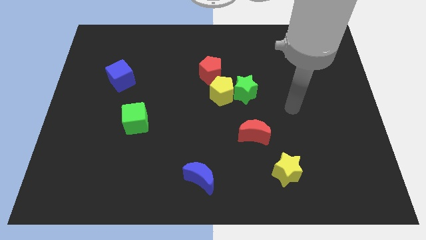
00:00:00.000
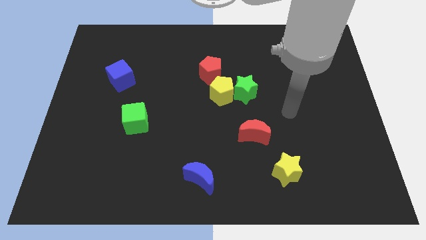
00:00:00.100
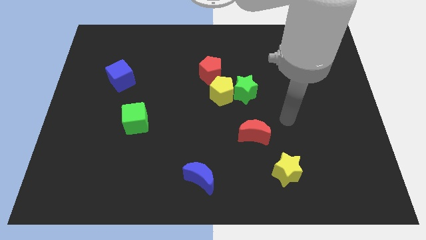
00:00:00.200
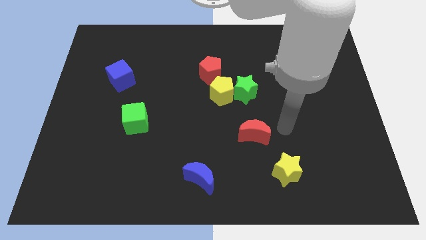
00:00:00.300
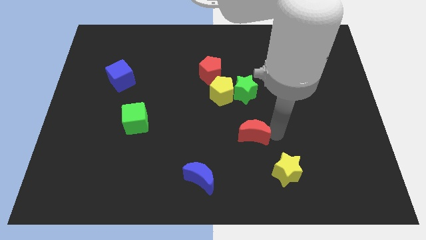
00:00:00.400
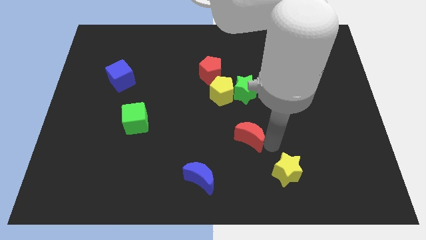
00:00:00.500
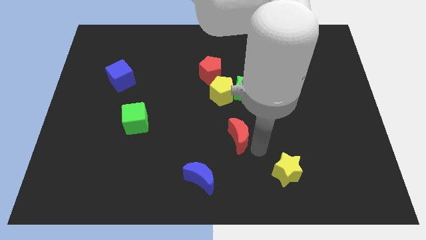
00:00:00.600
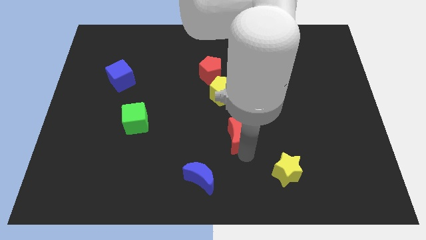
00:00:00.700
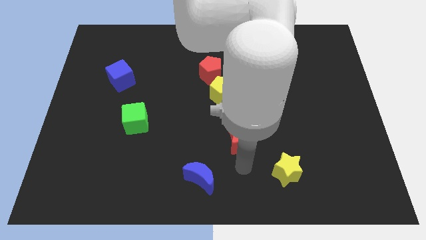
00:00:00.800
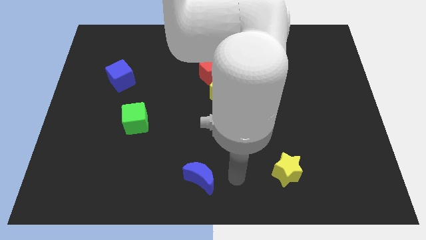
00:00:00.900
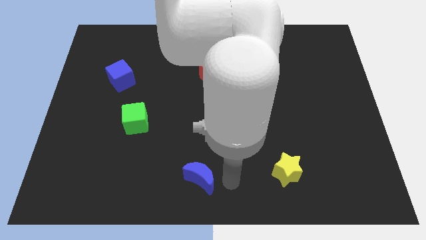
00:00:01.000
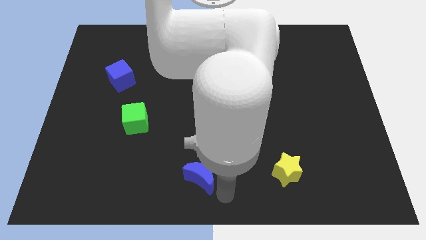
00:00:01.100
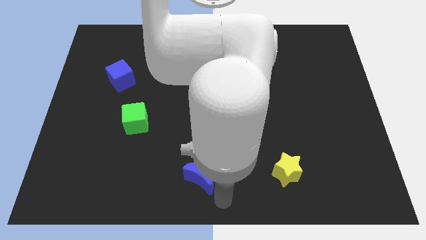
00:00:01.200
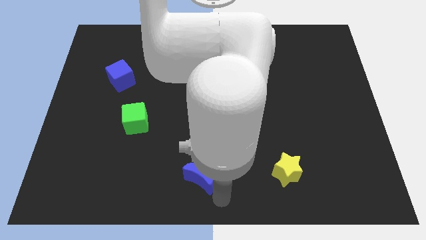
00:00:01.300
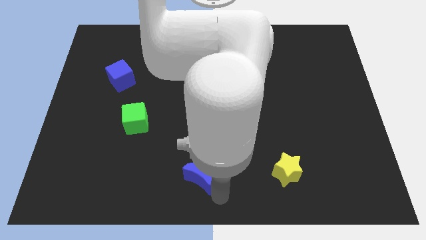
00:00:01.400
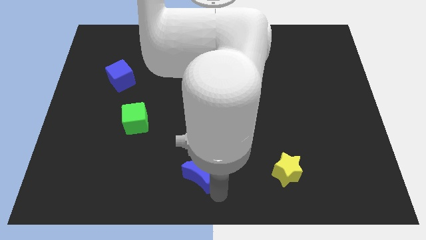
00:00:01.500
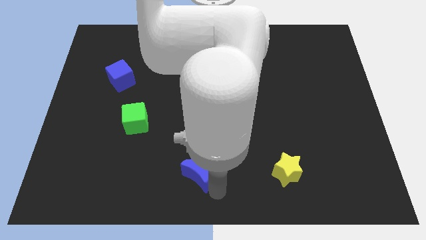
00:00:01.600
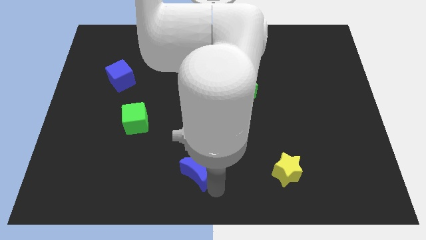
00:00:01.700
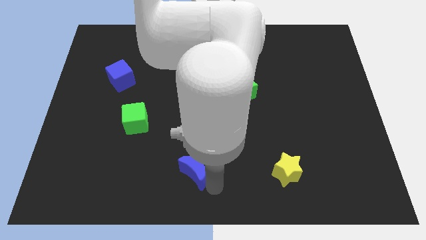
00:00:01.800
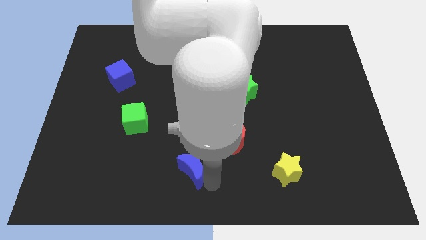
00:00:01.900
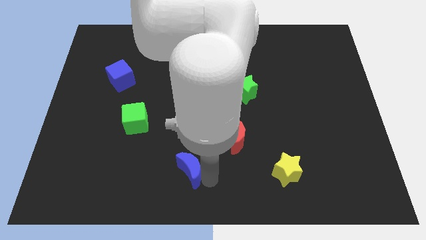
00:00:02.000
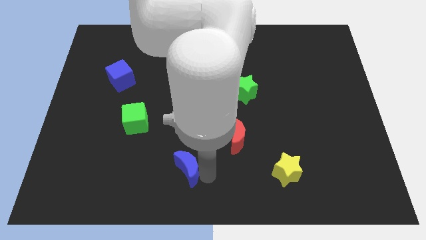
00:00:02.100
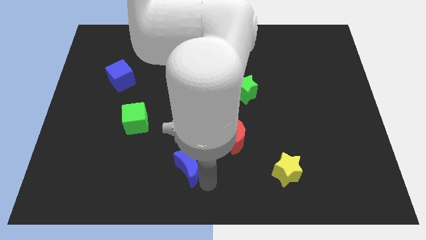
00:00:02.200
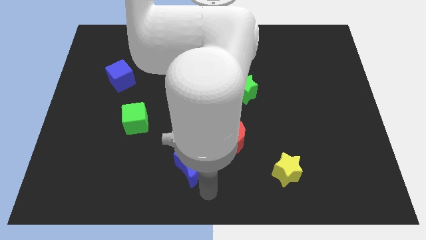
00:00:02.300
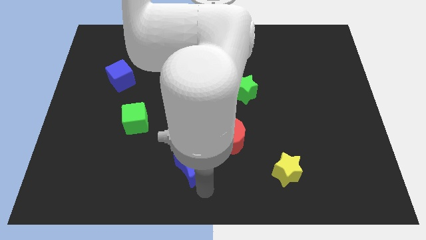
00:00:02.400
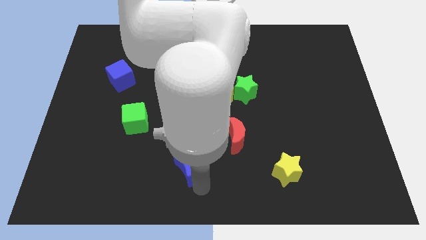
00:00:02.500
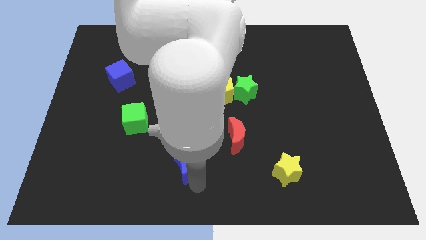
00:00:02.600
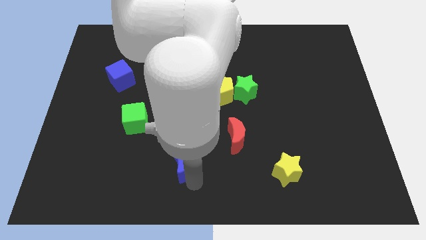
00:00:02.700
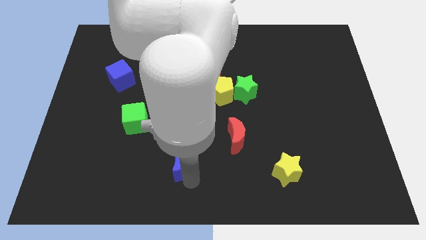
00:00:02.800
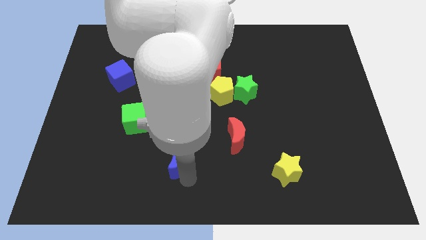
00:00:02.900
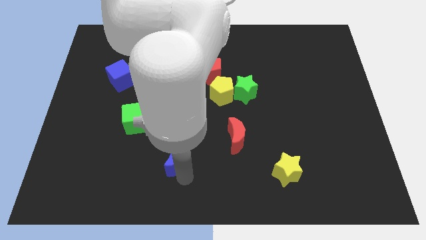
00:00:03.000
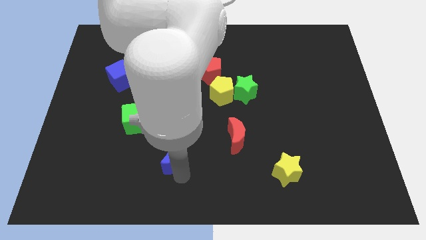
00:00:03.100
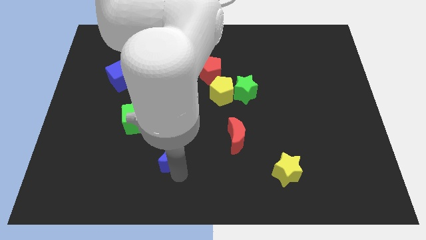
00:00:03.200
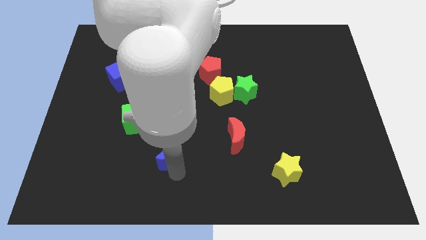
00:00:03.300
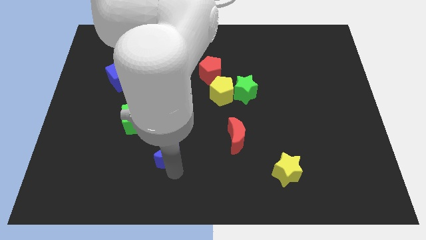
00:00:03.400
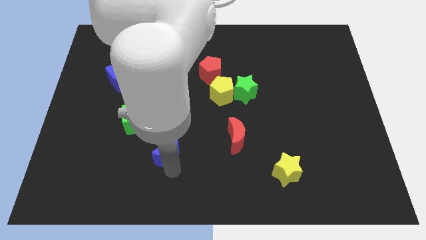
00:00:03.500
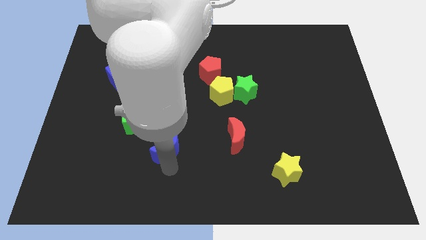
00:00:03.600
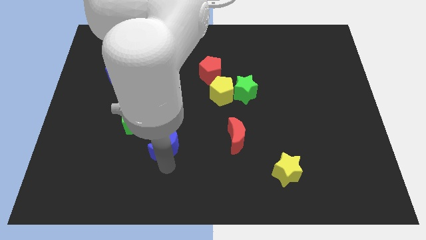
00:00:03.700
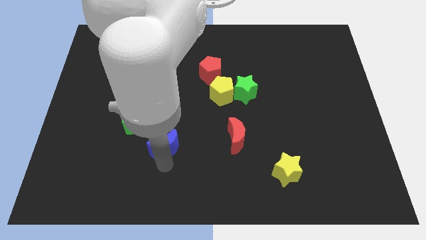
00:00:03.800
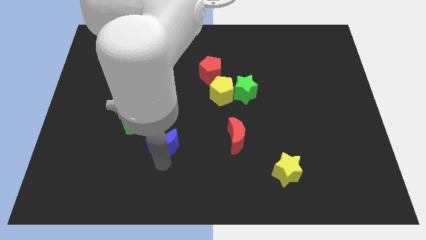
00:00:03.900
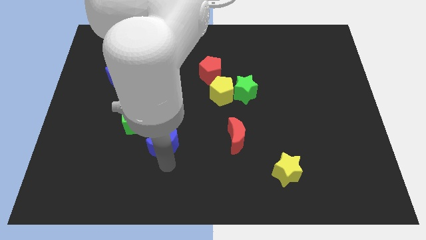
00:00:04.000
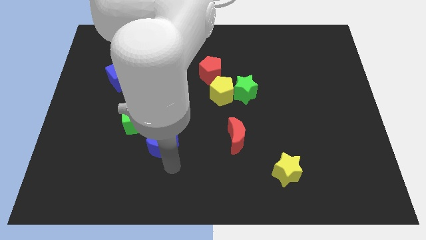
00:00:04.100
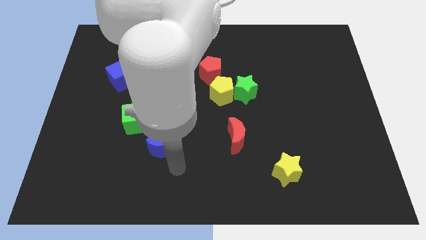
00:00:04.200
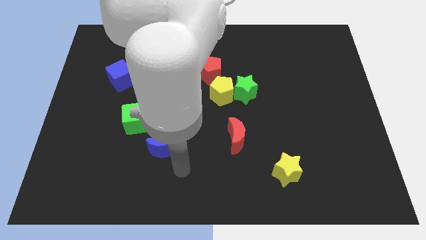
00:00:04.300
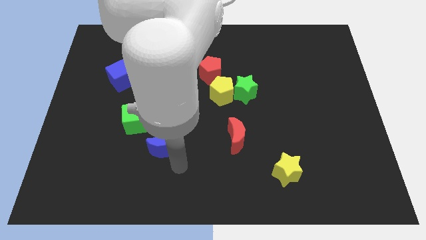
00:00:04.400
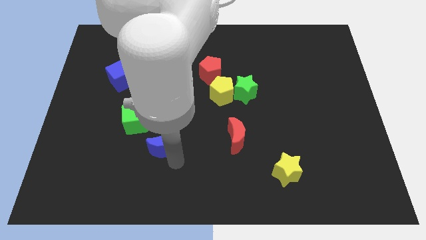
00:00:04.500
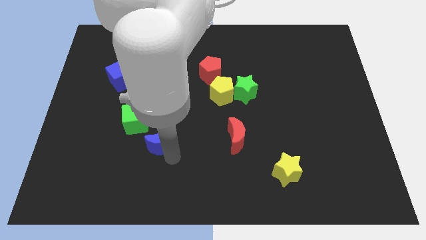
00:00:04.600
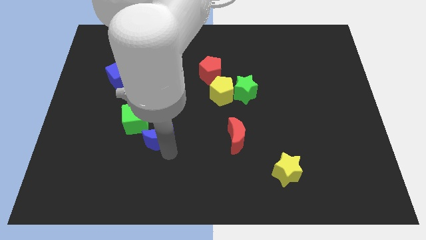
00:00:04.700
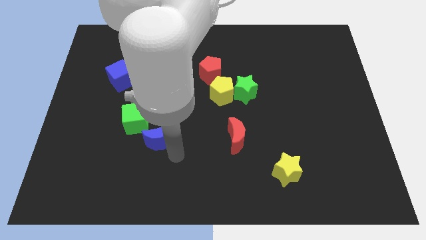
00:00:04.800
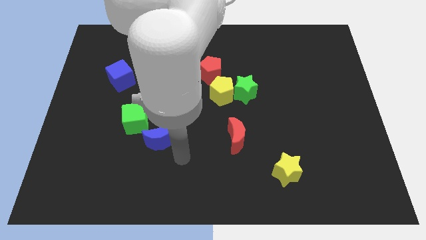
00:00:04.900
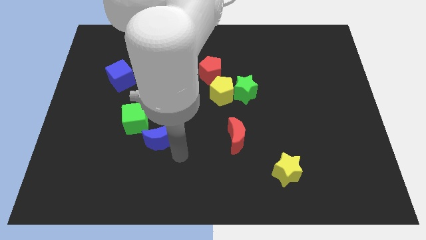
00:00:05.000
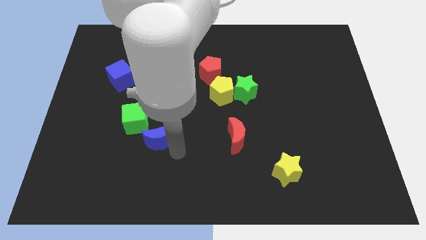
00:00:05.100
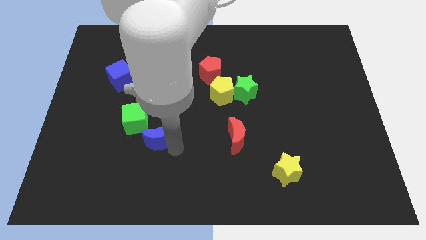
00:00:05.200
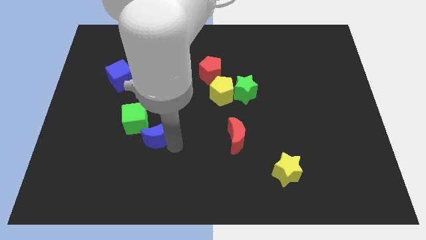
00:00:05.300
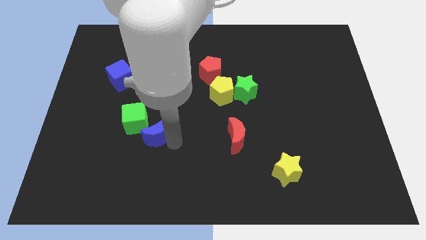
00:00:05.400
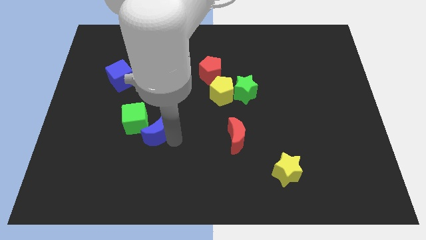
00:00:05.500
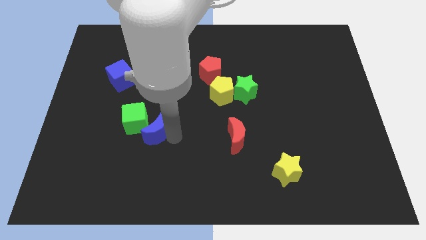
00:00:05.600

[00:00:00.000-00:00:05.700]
put the blue moon to the green cube

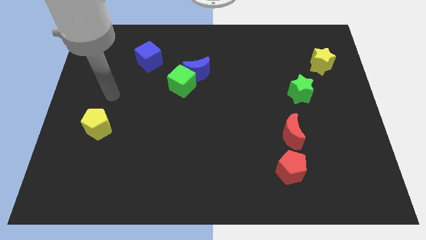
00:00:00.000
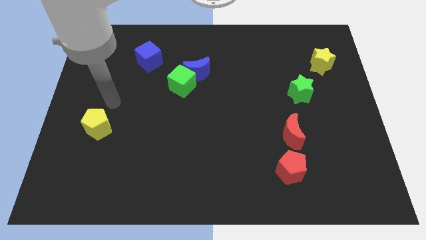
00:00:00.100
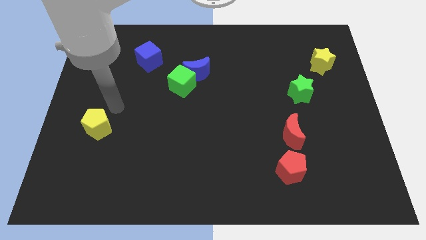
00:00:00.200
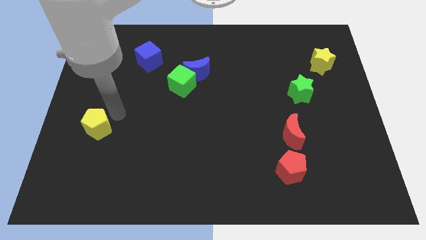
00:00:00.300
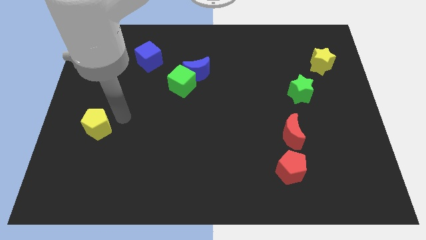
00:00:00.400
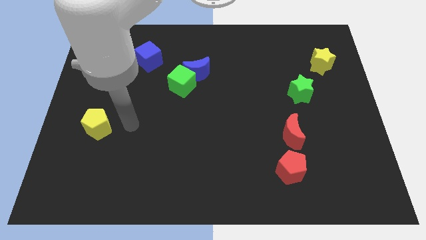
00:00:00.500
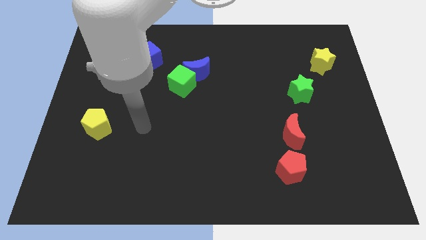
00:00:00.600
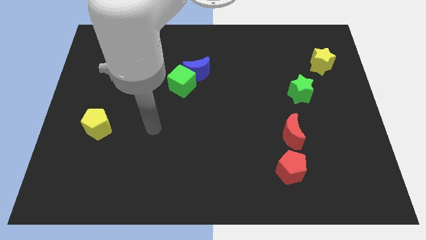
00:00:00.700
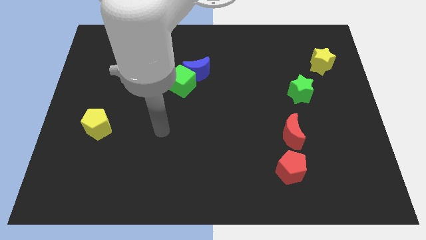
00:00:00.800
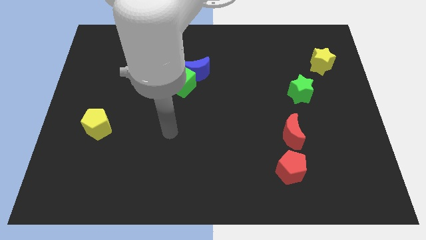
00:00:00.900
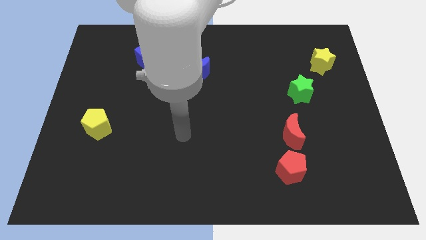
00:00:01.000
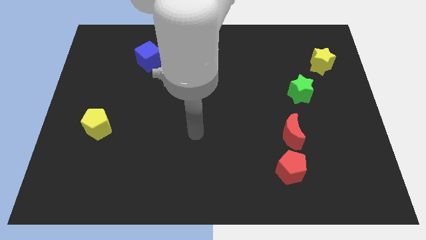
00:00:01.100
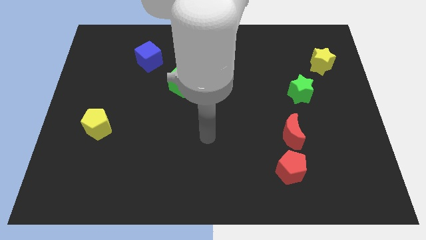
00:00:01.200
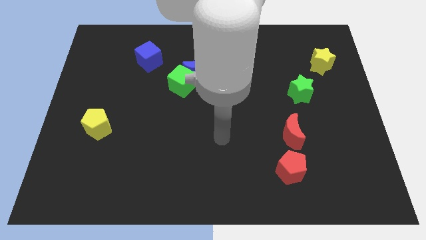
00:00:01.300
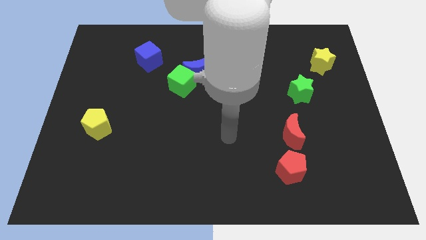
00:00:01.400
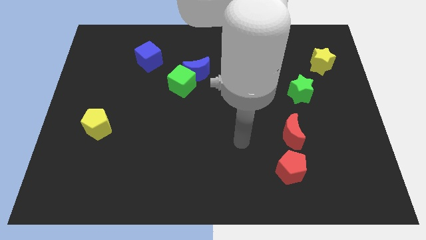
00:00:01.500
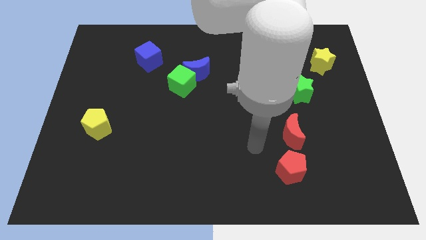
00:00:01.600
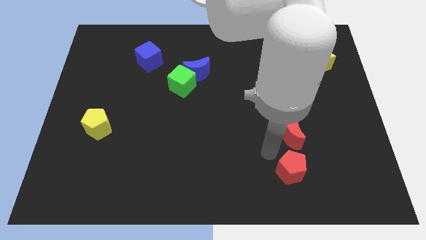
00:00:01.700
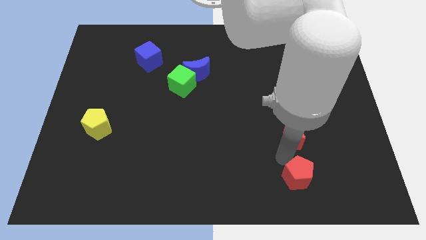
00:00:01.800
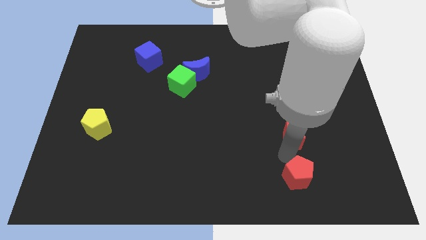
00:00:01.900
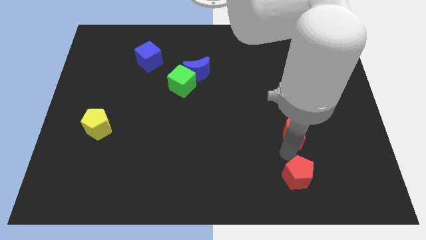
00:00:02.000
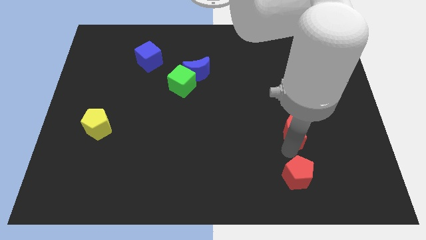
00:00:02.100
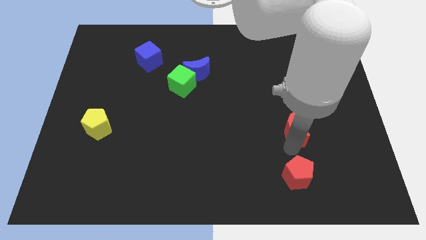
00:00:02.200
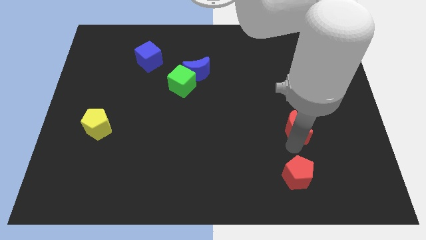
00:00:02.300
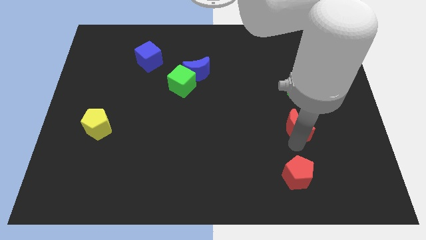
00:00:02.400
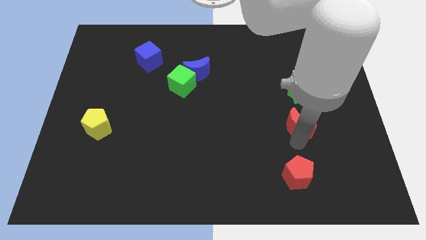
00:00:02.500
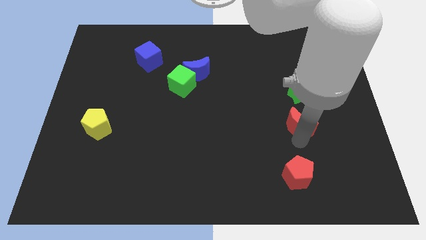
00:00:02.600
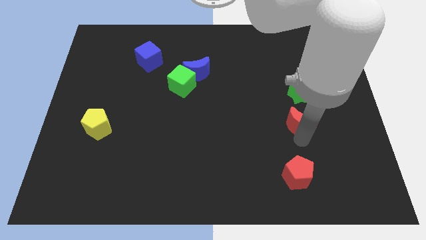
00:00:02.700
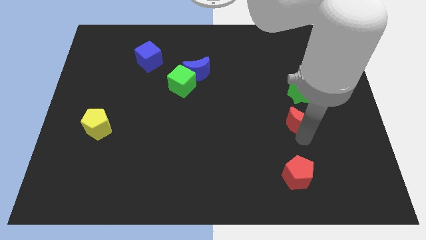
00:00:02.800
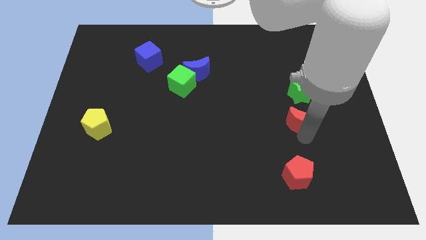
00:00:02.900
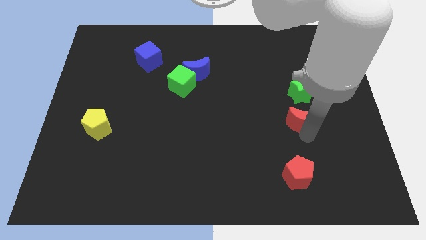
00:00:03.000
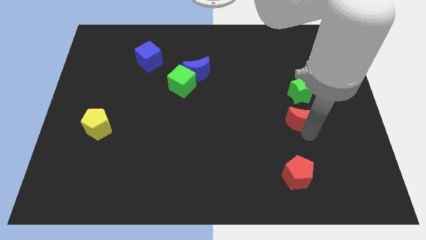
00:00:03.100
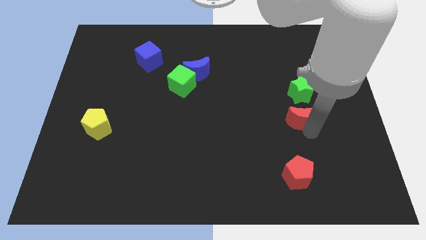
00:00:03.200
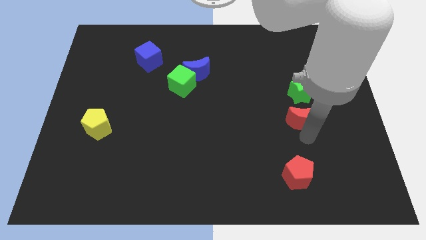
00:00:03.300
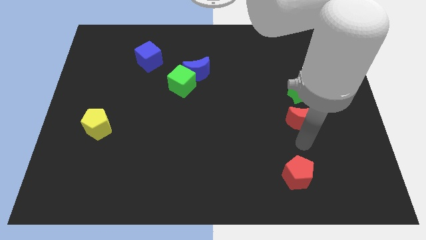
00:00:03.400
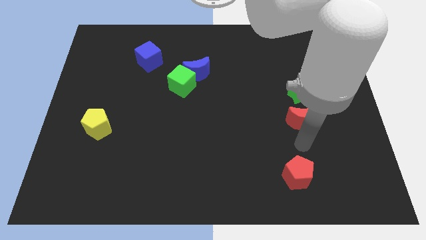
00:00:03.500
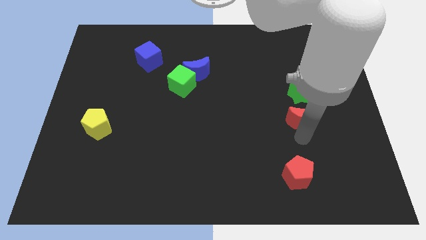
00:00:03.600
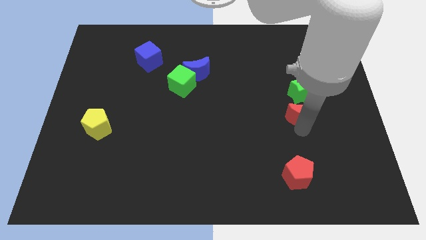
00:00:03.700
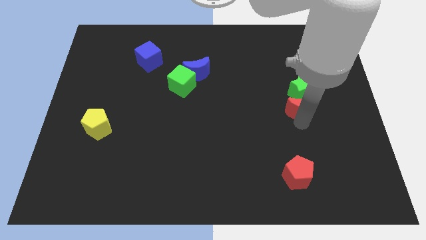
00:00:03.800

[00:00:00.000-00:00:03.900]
push the red moon next to the green star
